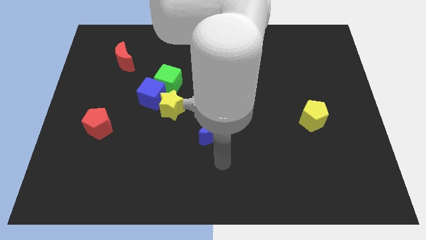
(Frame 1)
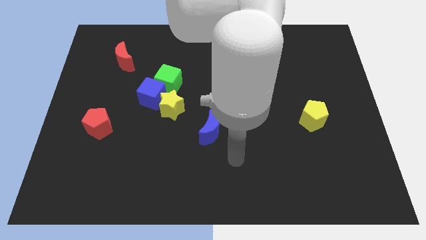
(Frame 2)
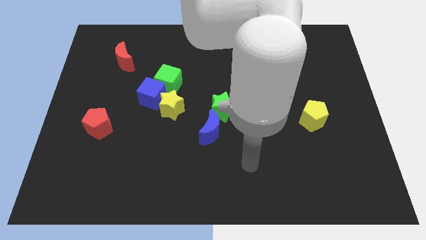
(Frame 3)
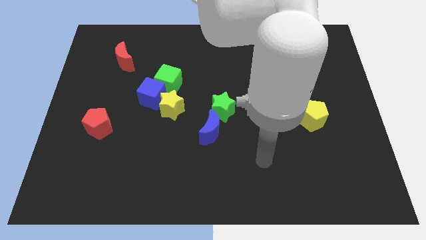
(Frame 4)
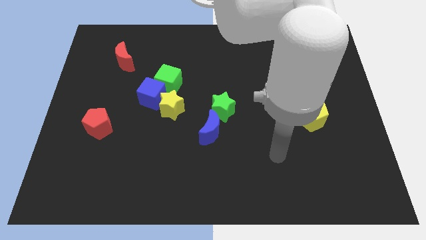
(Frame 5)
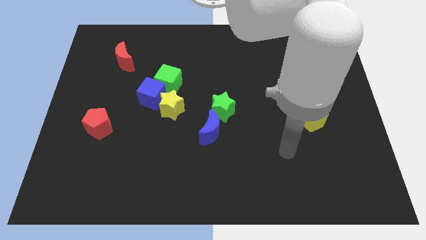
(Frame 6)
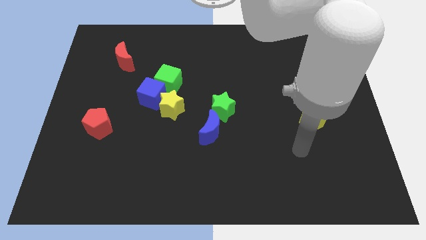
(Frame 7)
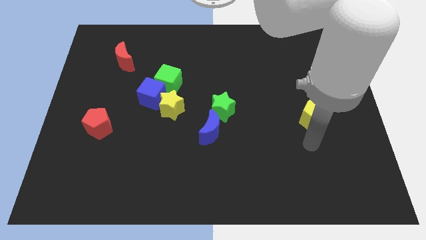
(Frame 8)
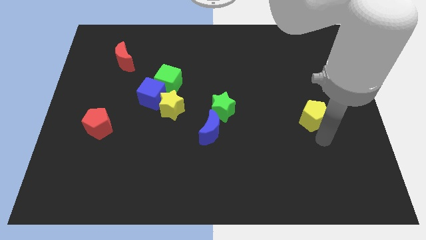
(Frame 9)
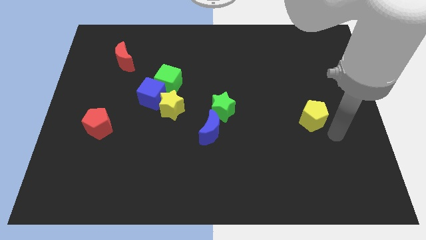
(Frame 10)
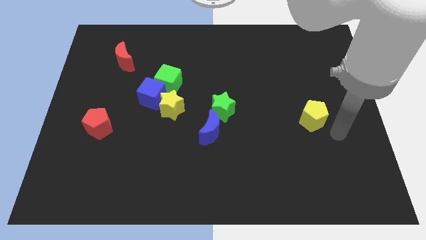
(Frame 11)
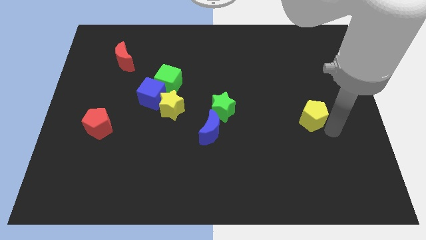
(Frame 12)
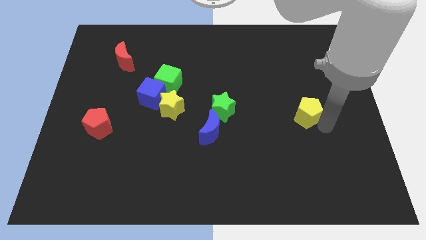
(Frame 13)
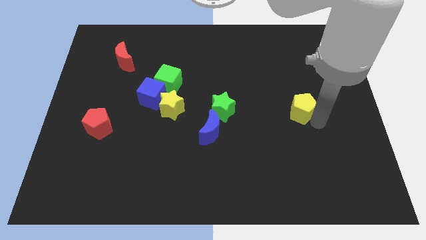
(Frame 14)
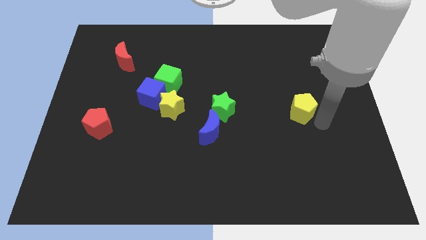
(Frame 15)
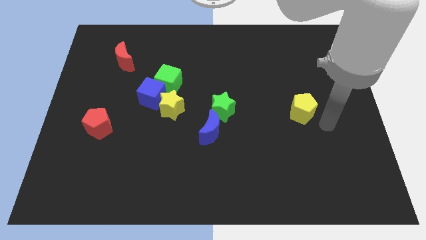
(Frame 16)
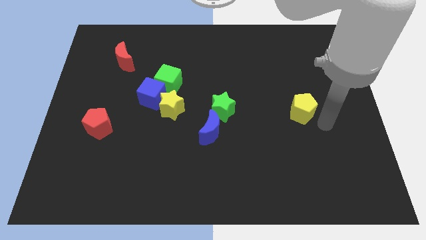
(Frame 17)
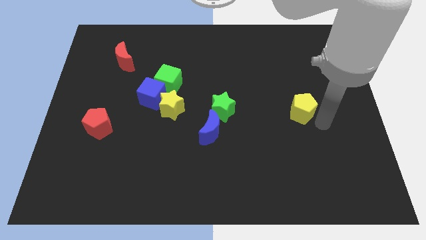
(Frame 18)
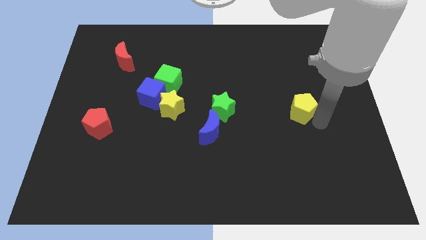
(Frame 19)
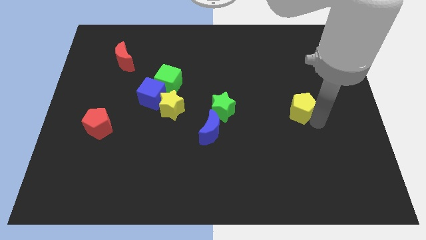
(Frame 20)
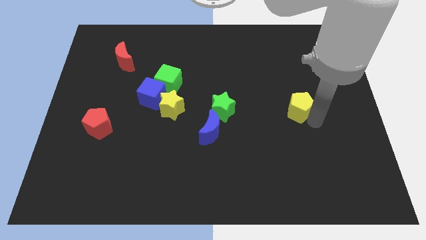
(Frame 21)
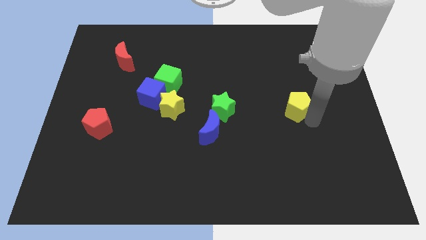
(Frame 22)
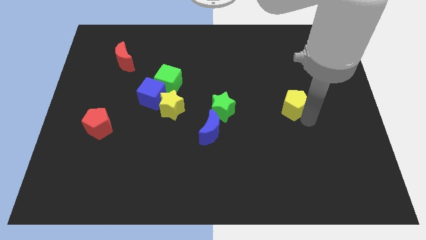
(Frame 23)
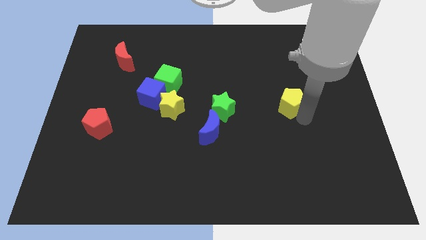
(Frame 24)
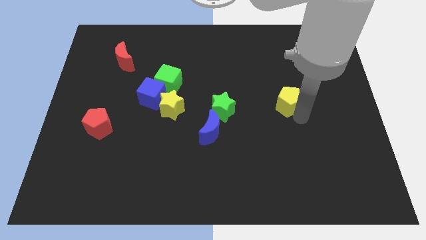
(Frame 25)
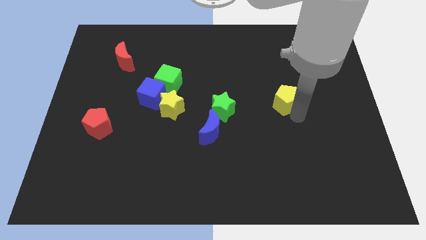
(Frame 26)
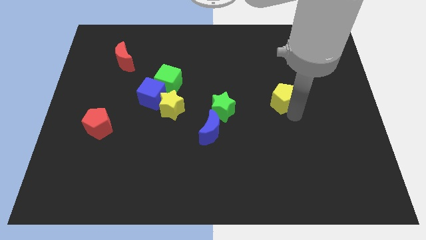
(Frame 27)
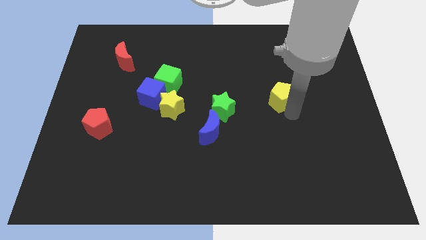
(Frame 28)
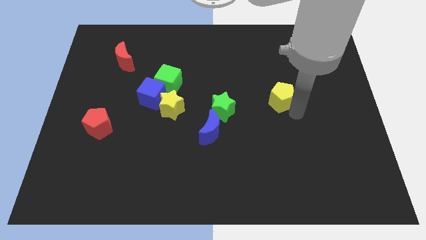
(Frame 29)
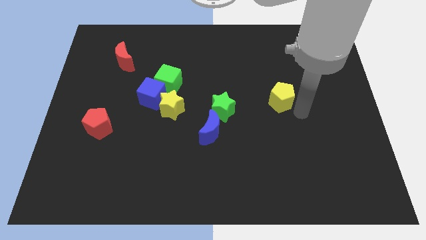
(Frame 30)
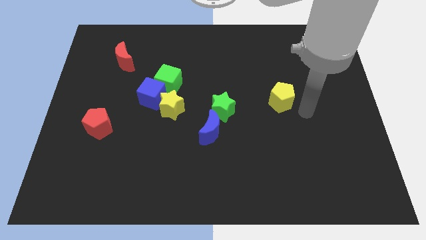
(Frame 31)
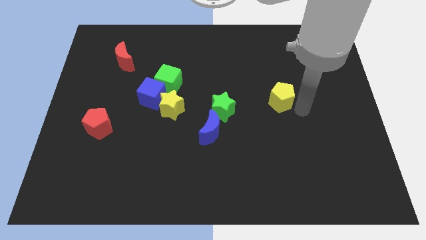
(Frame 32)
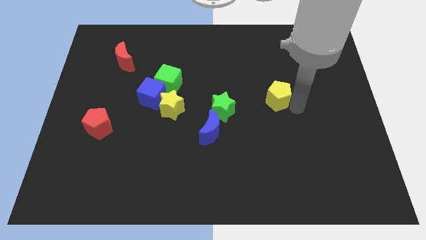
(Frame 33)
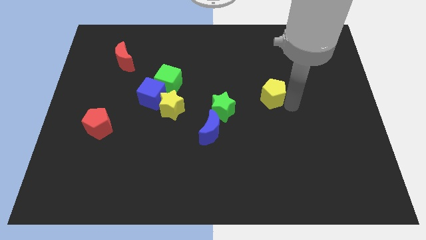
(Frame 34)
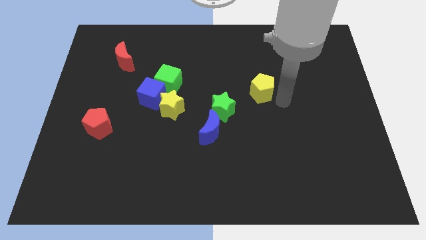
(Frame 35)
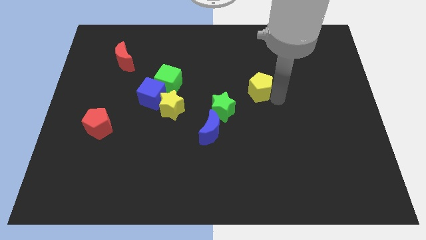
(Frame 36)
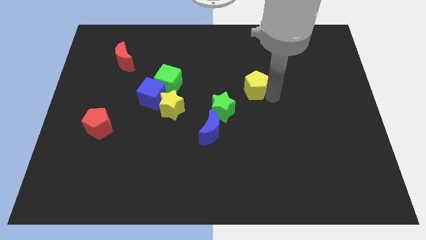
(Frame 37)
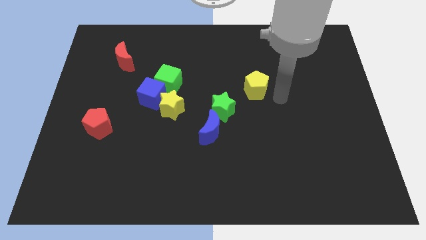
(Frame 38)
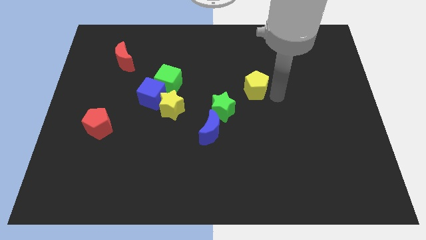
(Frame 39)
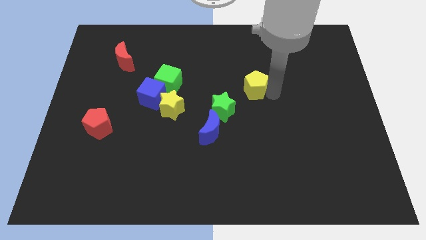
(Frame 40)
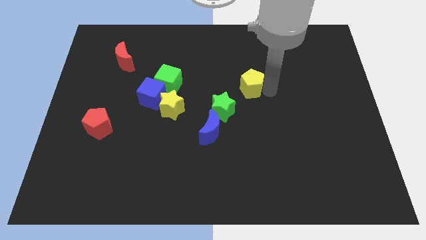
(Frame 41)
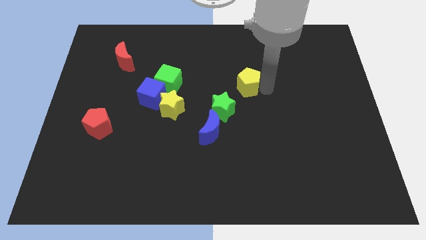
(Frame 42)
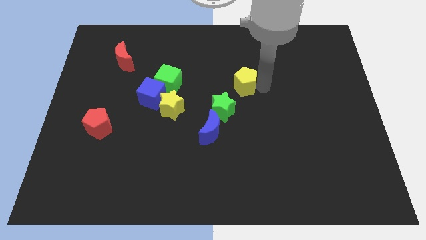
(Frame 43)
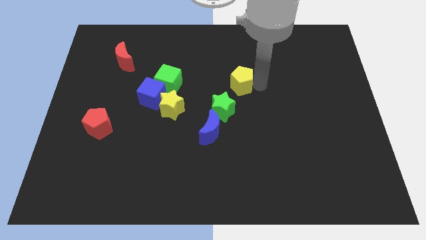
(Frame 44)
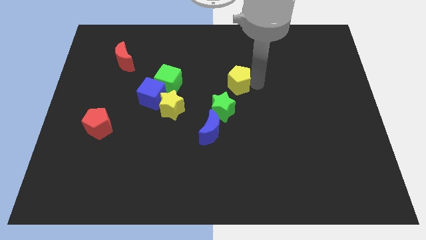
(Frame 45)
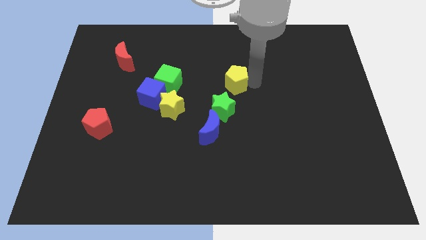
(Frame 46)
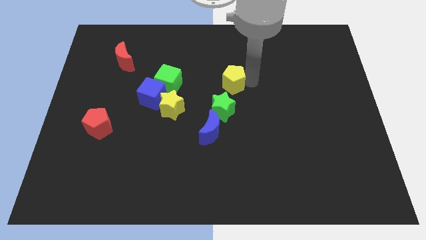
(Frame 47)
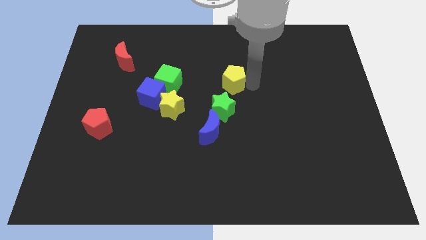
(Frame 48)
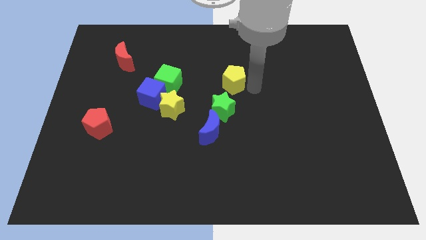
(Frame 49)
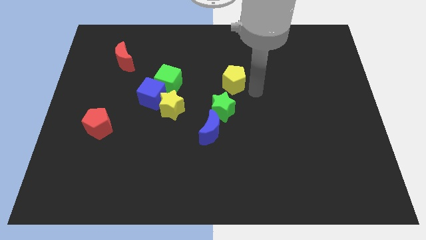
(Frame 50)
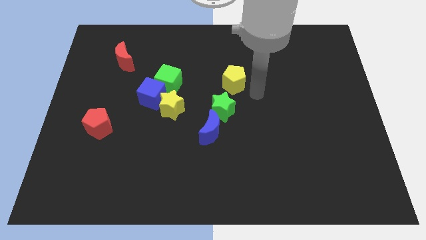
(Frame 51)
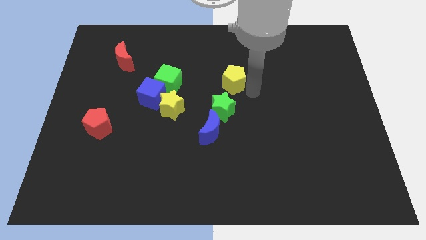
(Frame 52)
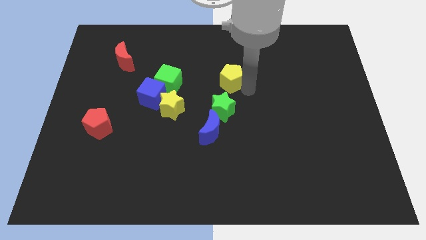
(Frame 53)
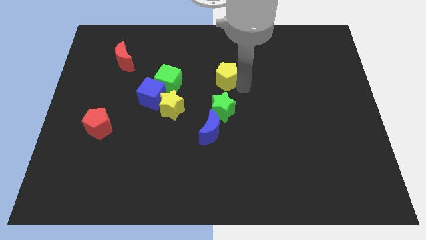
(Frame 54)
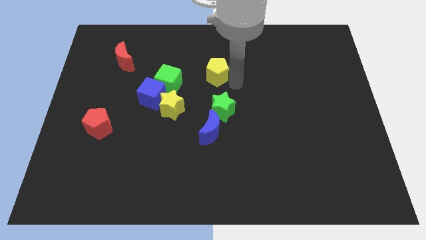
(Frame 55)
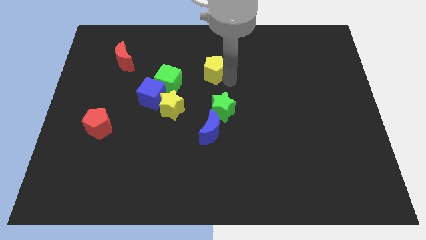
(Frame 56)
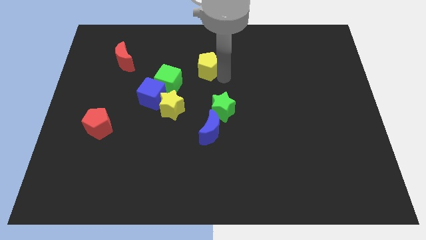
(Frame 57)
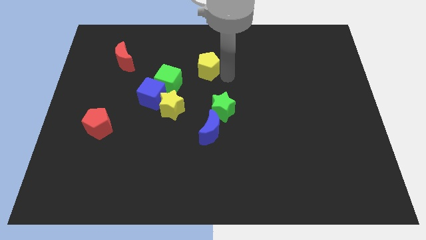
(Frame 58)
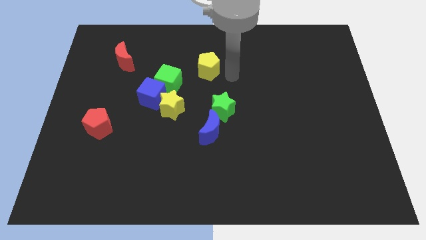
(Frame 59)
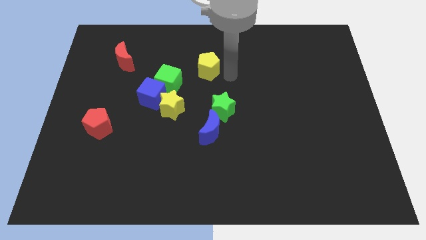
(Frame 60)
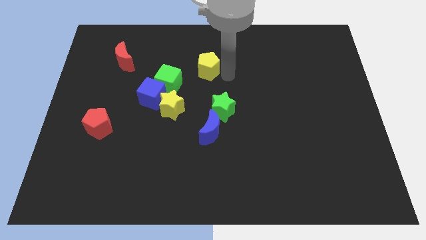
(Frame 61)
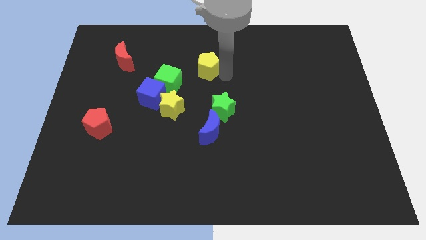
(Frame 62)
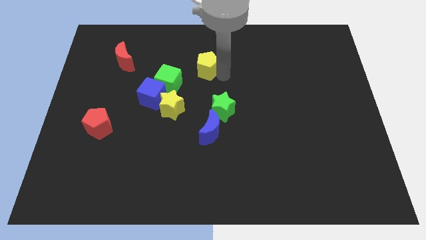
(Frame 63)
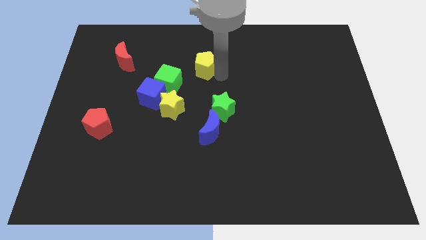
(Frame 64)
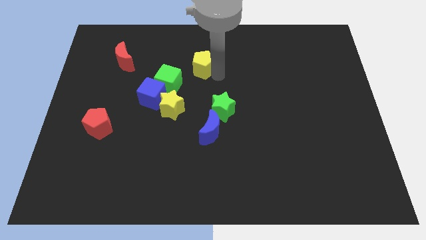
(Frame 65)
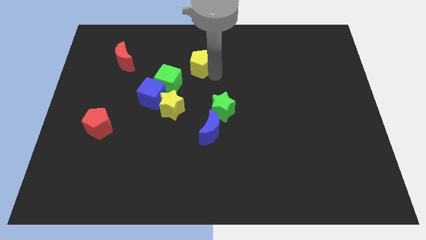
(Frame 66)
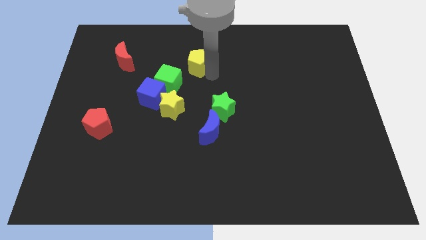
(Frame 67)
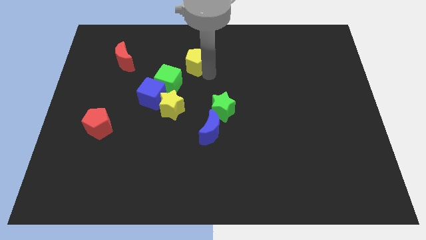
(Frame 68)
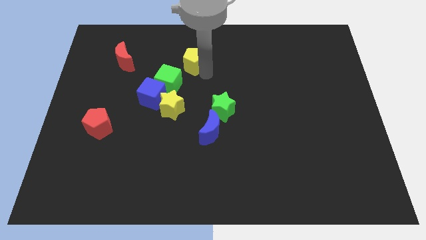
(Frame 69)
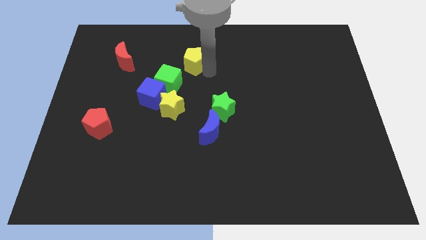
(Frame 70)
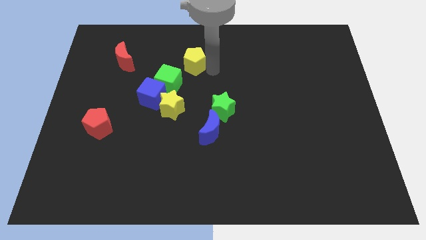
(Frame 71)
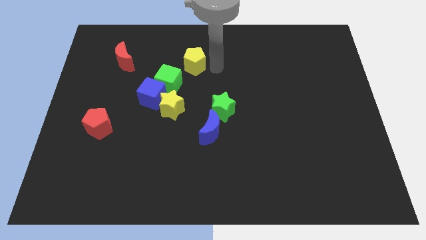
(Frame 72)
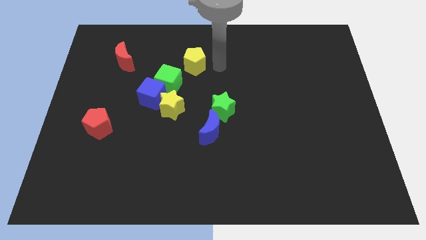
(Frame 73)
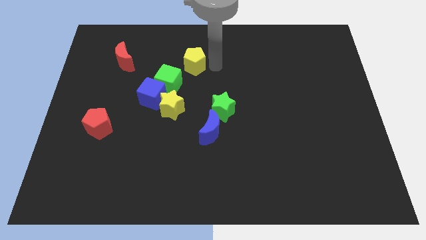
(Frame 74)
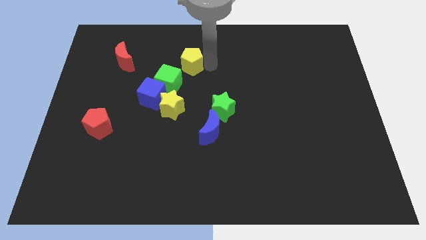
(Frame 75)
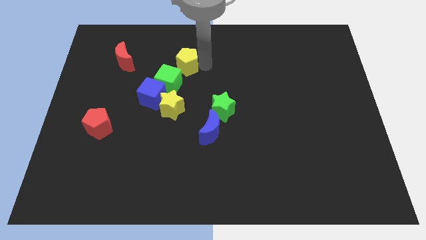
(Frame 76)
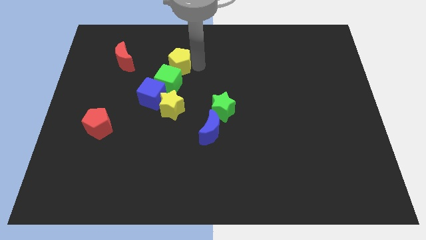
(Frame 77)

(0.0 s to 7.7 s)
move the yellow pentagon right of the red moon
